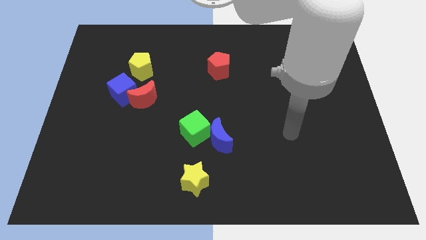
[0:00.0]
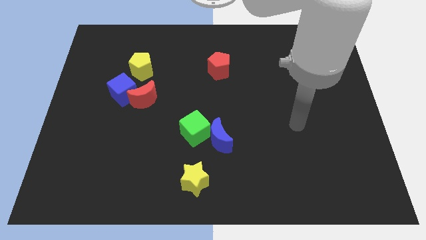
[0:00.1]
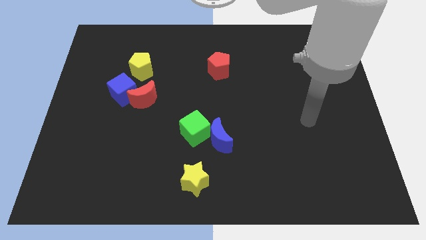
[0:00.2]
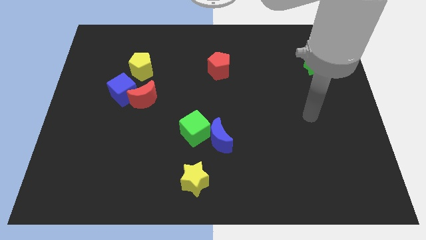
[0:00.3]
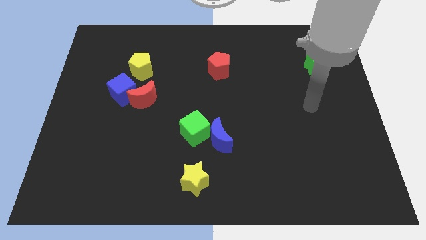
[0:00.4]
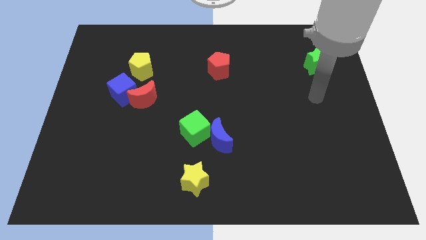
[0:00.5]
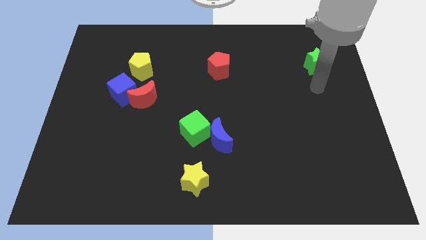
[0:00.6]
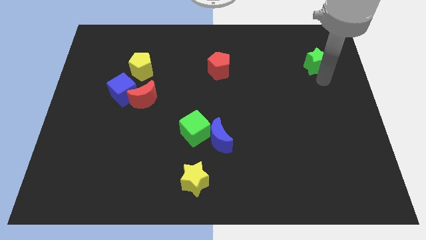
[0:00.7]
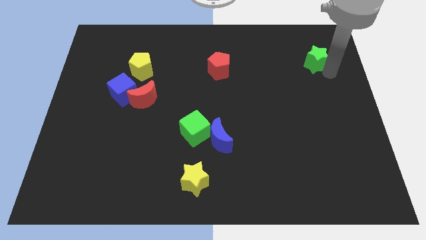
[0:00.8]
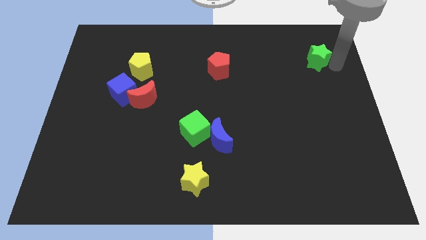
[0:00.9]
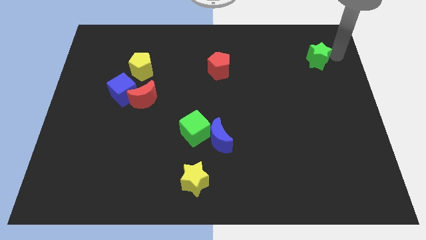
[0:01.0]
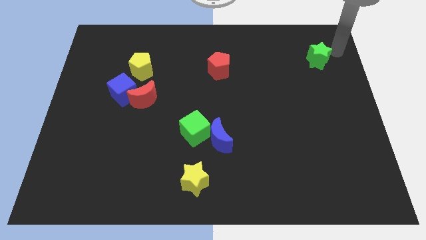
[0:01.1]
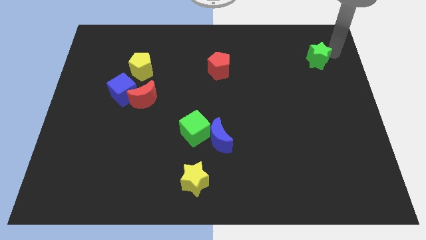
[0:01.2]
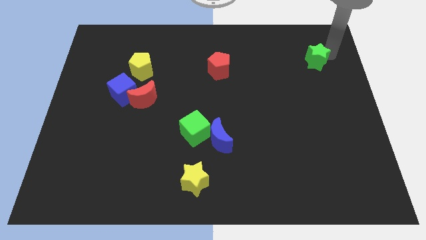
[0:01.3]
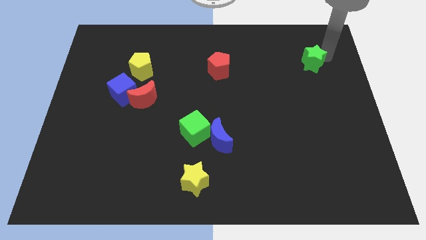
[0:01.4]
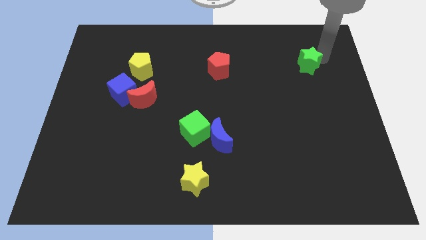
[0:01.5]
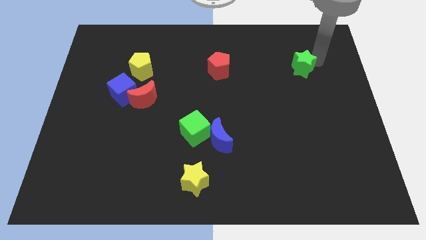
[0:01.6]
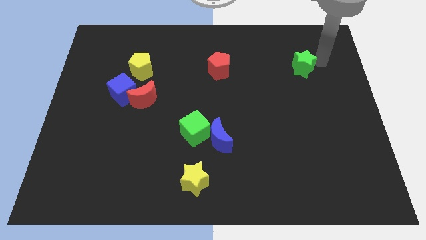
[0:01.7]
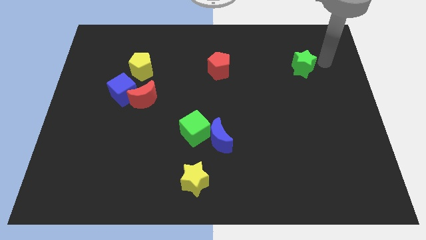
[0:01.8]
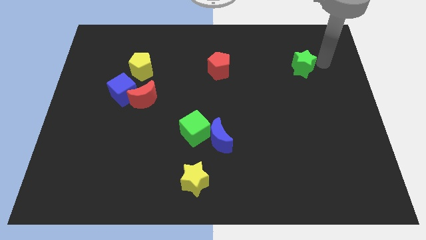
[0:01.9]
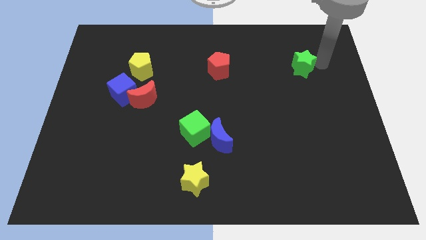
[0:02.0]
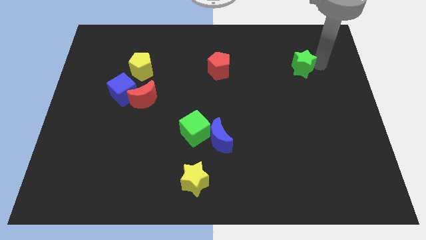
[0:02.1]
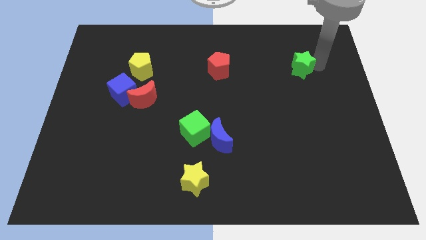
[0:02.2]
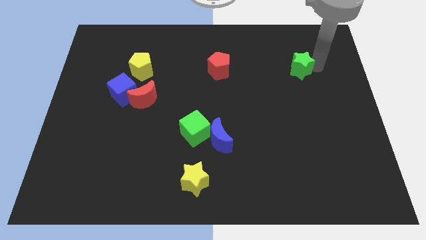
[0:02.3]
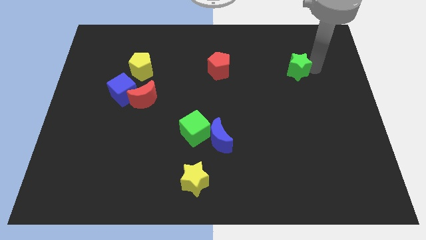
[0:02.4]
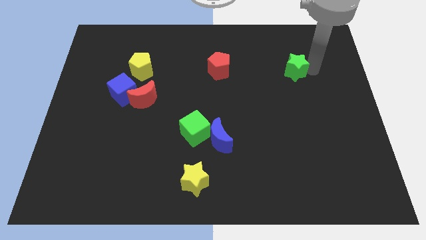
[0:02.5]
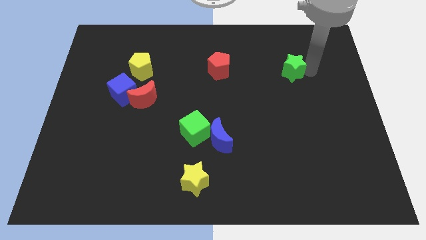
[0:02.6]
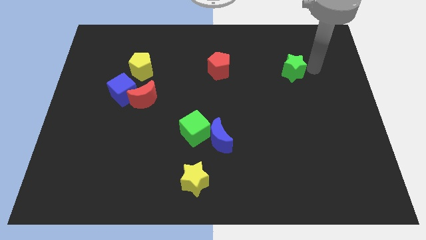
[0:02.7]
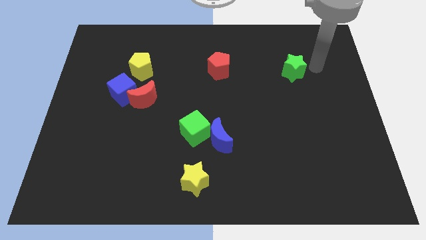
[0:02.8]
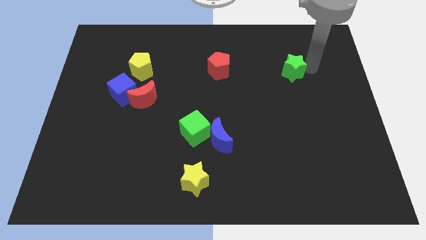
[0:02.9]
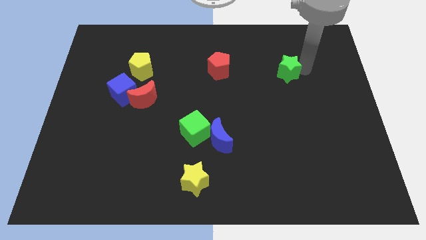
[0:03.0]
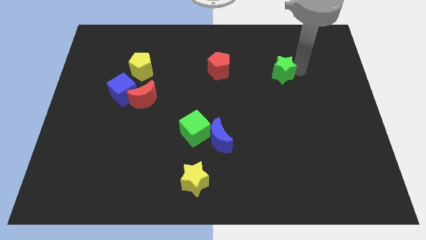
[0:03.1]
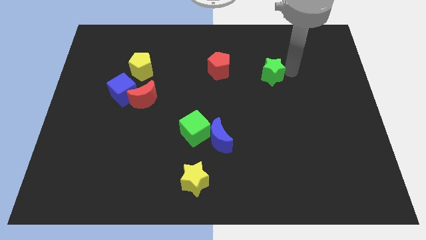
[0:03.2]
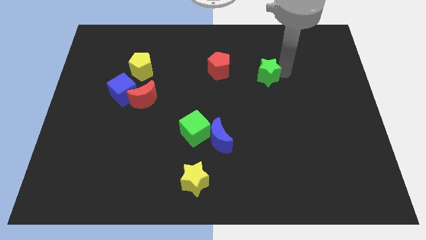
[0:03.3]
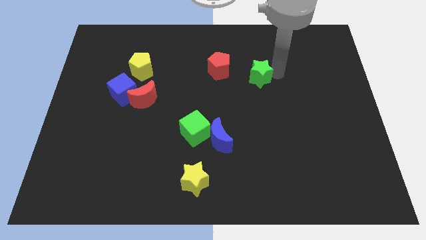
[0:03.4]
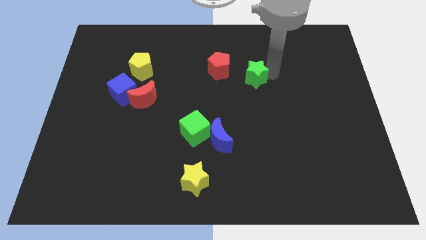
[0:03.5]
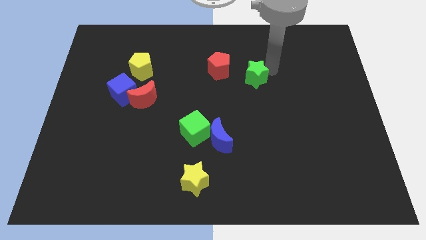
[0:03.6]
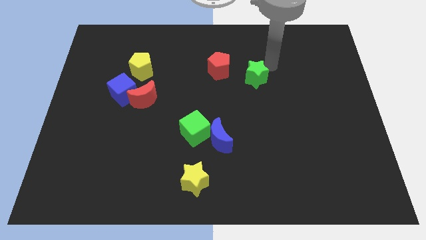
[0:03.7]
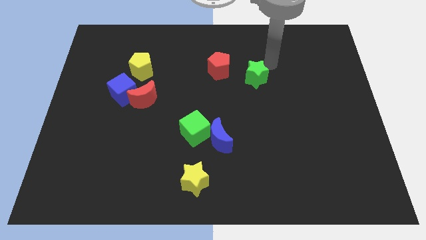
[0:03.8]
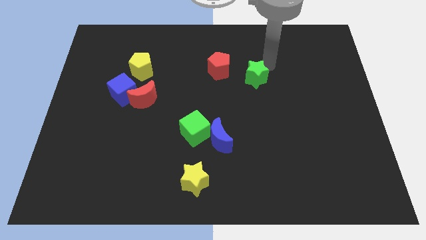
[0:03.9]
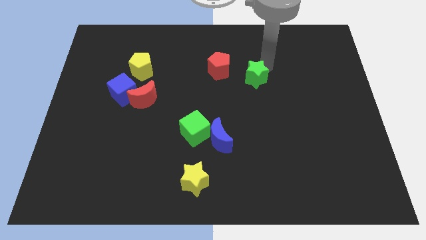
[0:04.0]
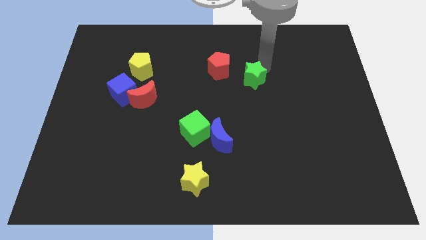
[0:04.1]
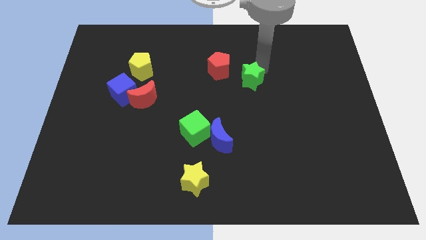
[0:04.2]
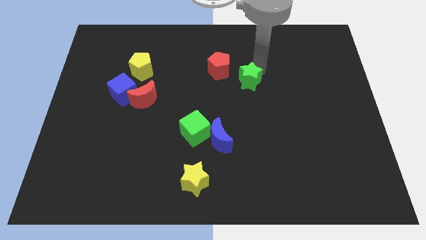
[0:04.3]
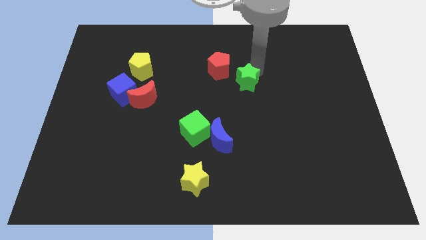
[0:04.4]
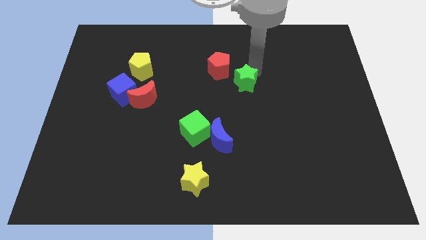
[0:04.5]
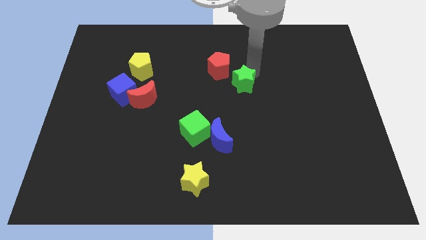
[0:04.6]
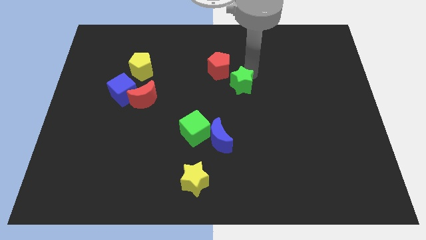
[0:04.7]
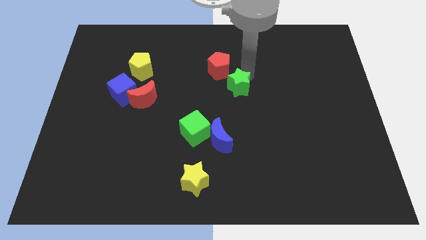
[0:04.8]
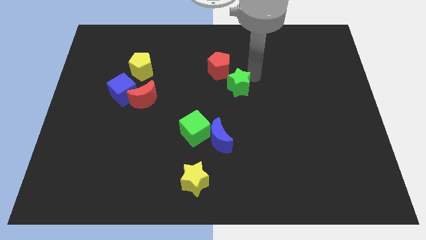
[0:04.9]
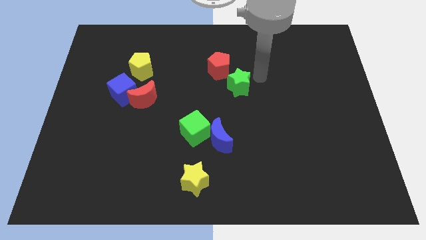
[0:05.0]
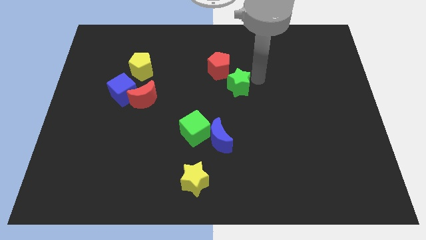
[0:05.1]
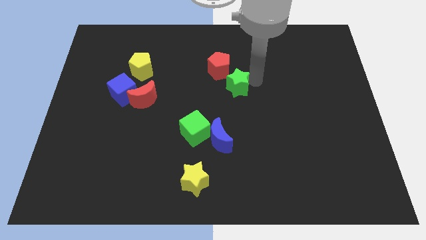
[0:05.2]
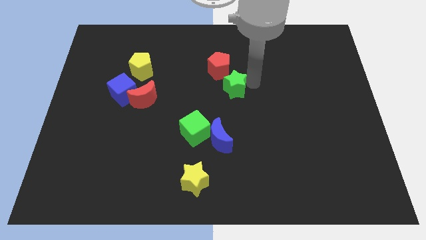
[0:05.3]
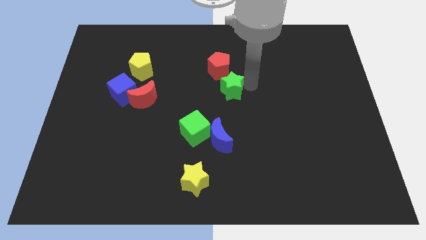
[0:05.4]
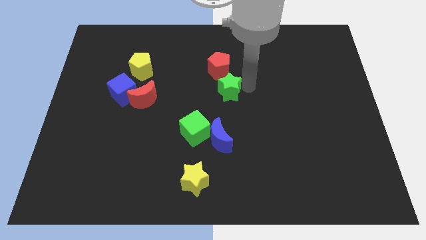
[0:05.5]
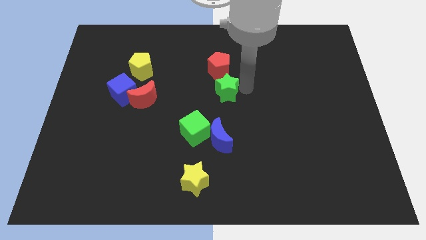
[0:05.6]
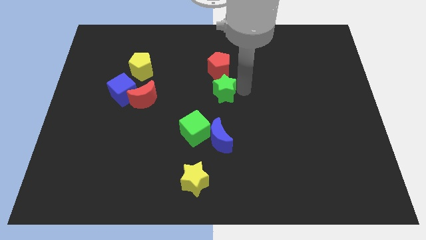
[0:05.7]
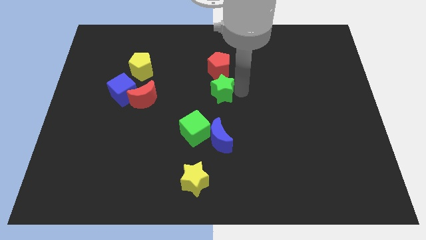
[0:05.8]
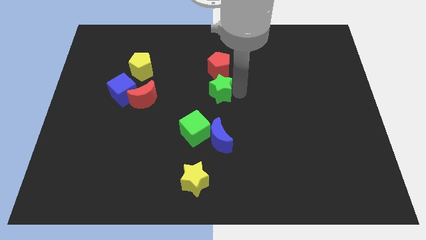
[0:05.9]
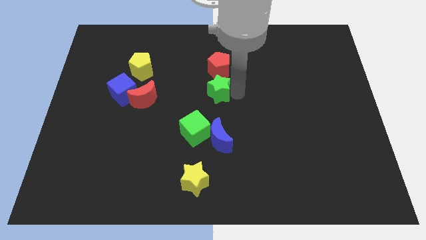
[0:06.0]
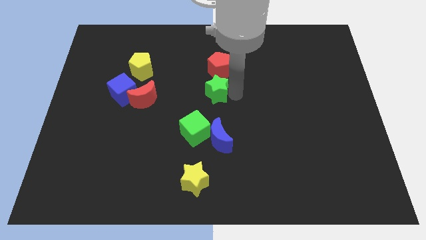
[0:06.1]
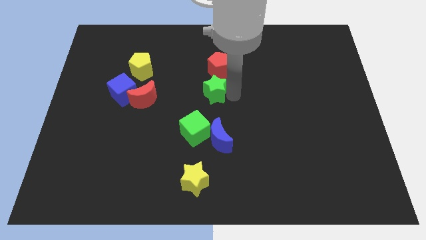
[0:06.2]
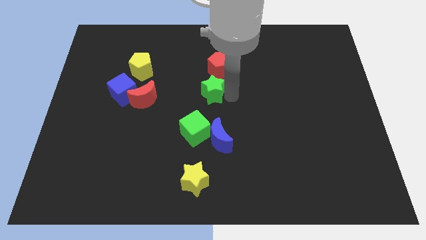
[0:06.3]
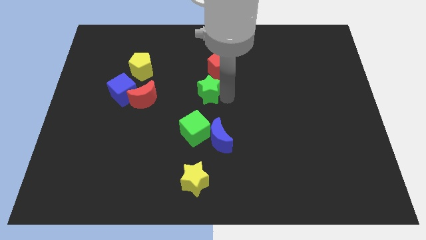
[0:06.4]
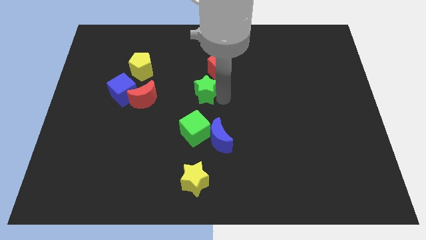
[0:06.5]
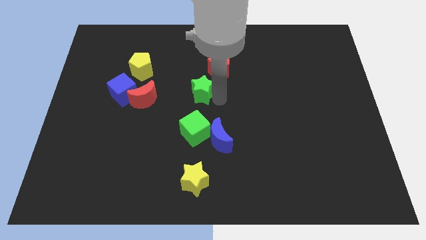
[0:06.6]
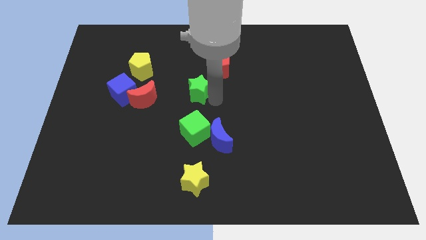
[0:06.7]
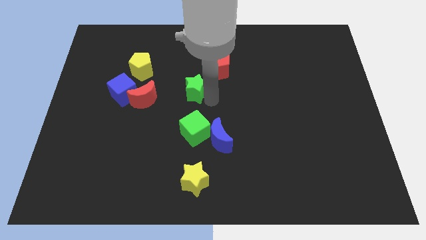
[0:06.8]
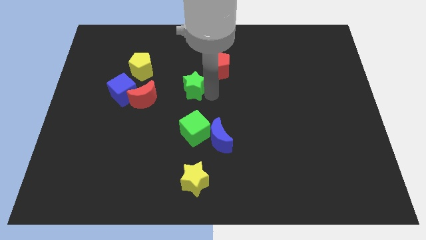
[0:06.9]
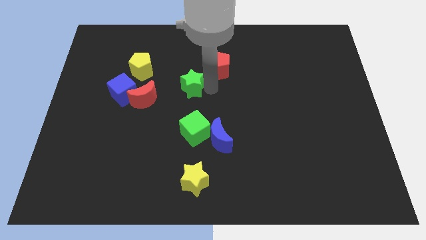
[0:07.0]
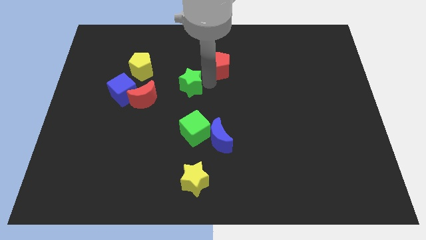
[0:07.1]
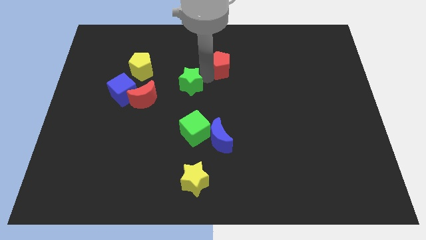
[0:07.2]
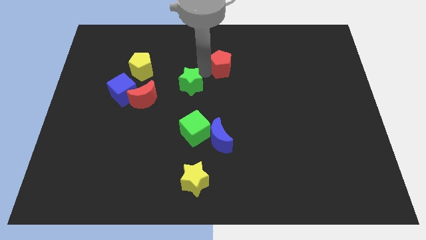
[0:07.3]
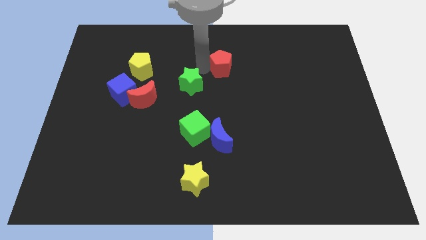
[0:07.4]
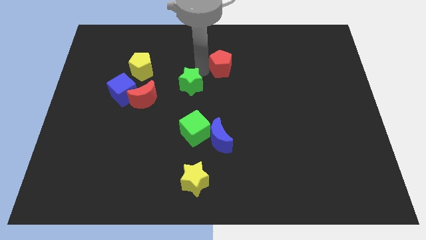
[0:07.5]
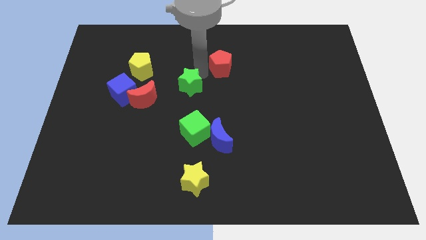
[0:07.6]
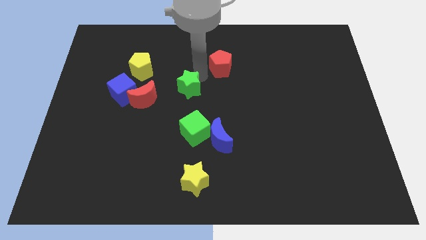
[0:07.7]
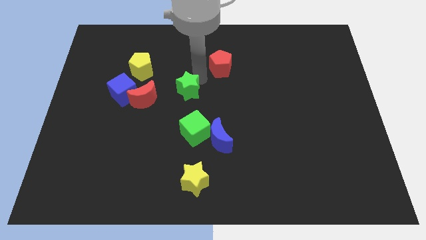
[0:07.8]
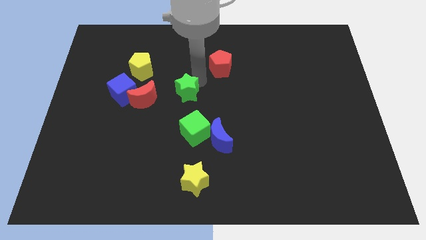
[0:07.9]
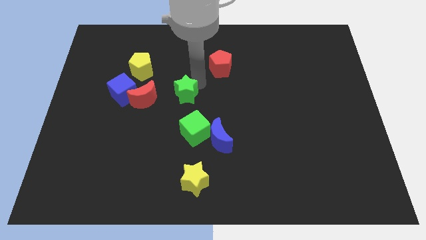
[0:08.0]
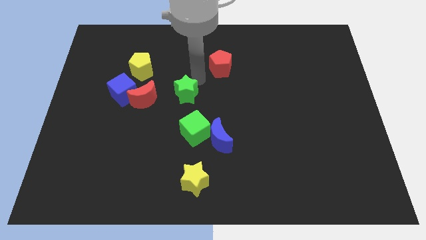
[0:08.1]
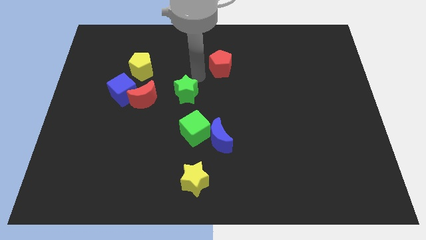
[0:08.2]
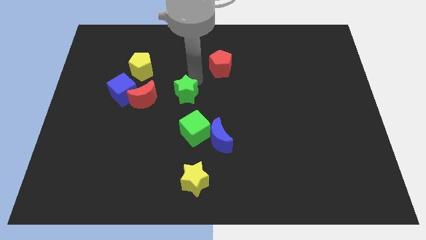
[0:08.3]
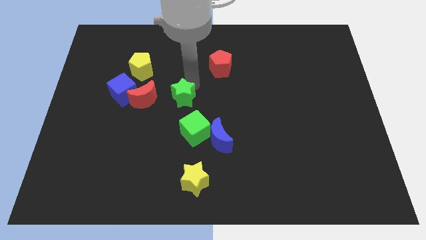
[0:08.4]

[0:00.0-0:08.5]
put the green star to the top left side of the green cube
